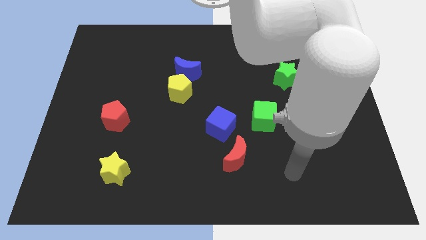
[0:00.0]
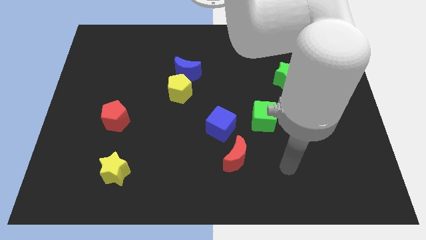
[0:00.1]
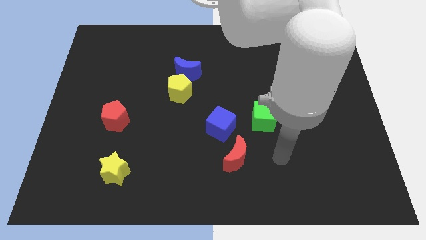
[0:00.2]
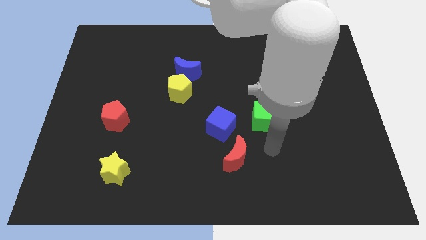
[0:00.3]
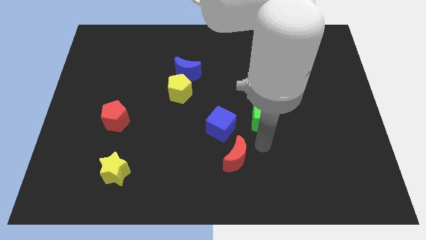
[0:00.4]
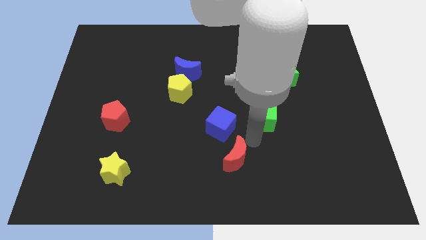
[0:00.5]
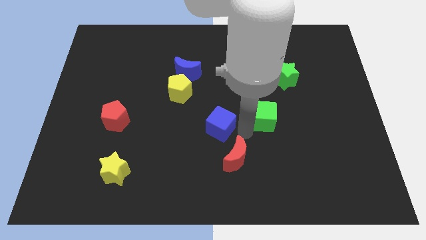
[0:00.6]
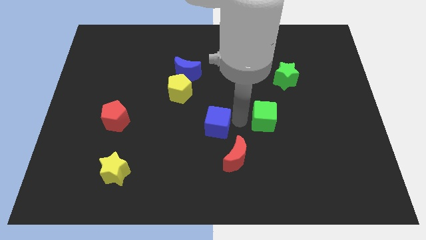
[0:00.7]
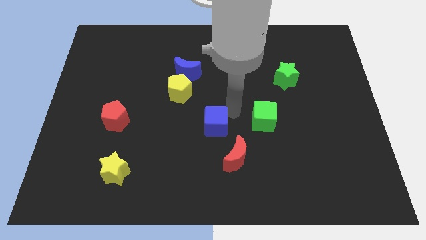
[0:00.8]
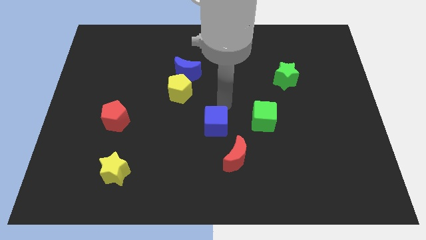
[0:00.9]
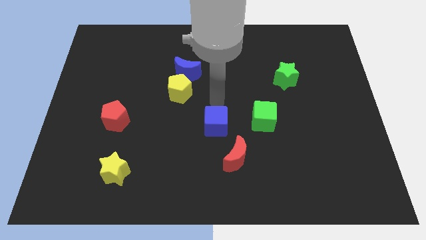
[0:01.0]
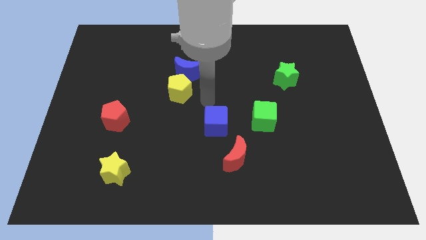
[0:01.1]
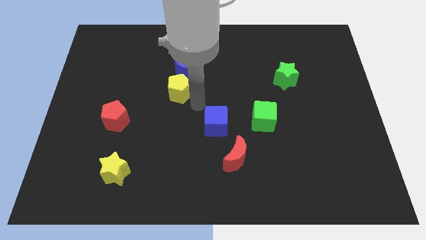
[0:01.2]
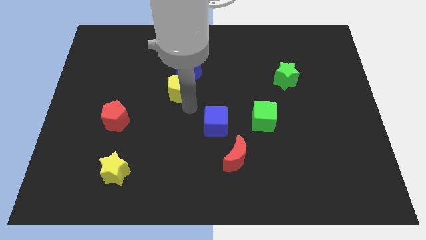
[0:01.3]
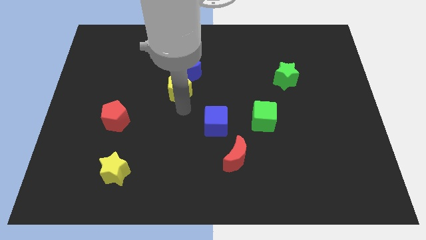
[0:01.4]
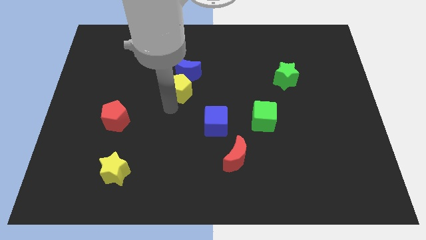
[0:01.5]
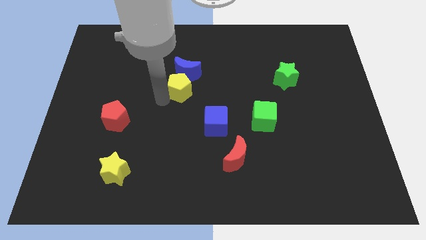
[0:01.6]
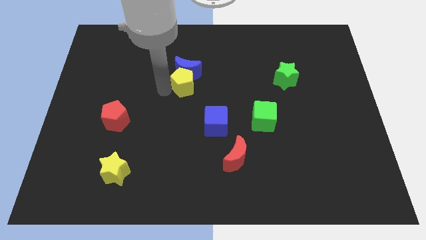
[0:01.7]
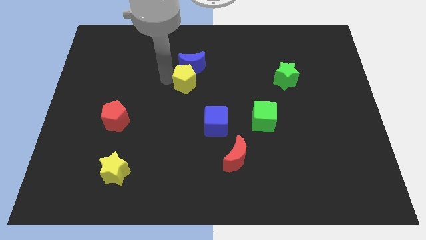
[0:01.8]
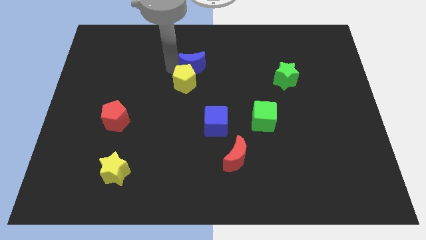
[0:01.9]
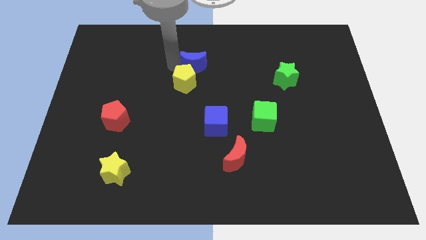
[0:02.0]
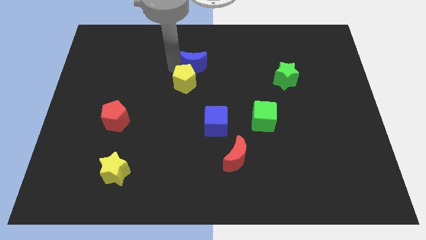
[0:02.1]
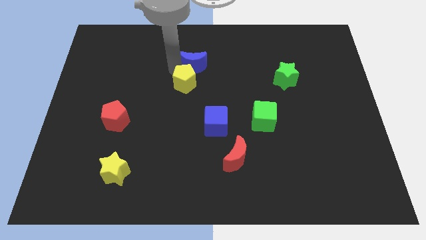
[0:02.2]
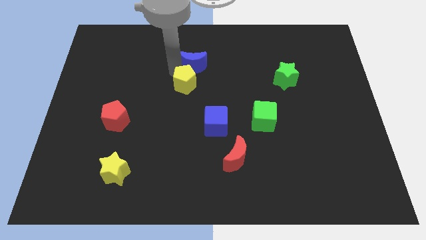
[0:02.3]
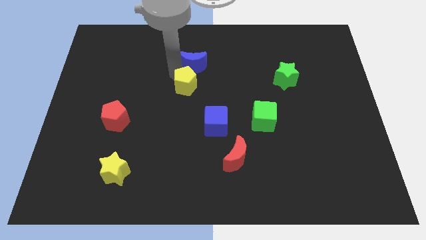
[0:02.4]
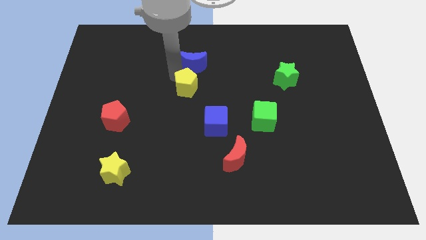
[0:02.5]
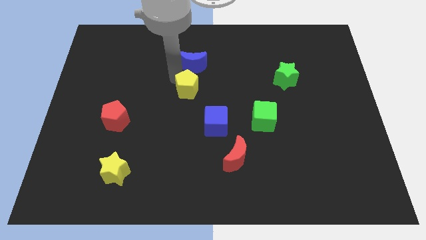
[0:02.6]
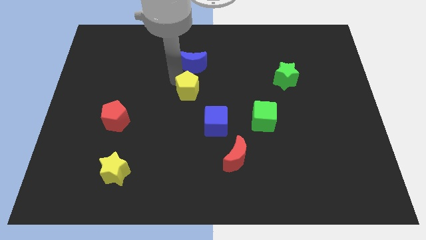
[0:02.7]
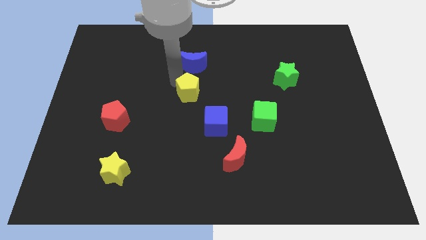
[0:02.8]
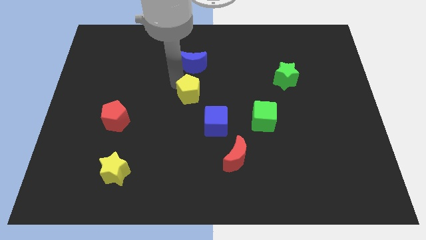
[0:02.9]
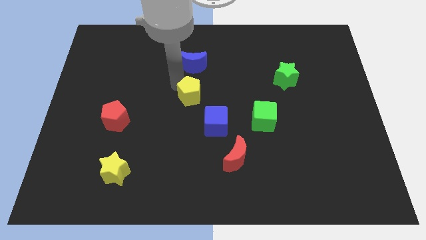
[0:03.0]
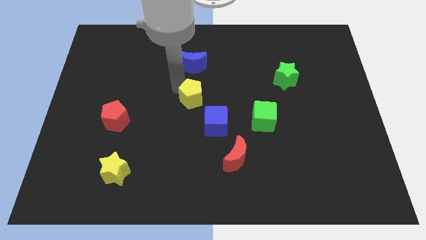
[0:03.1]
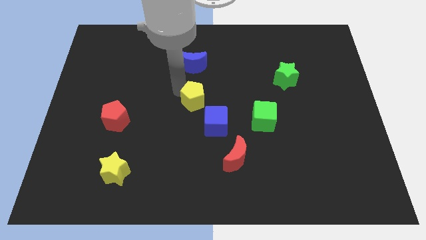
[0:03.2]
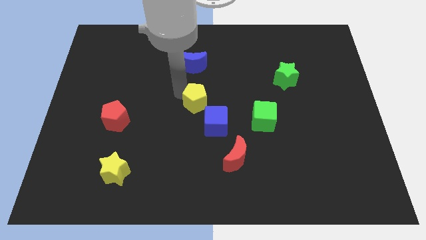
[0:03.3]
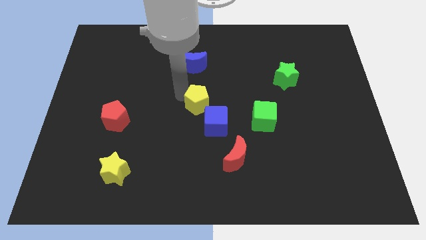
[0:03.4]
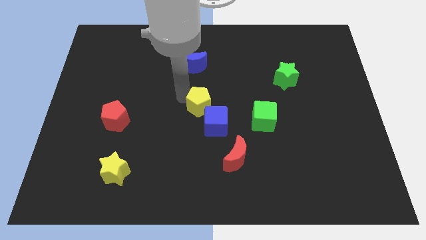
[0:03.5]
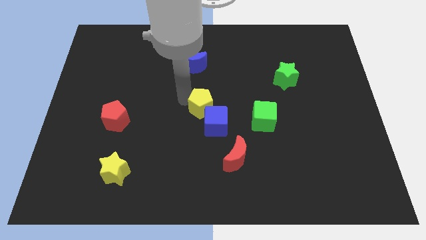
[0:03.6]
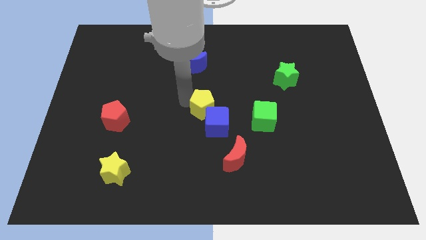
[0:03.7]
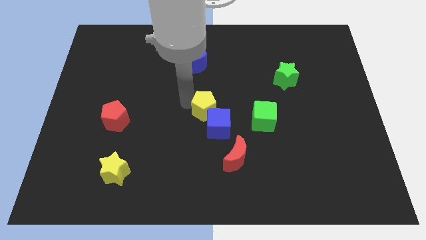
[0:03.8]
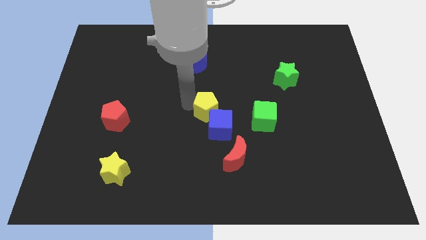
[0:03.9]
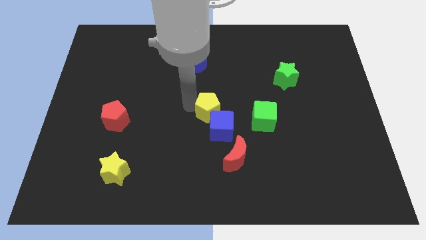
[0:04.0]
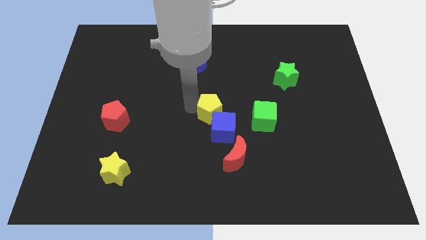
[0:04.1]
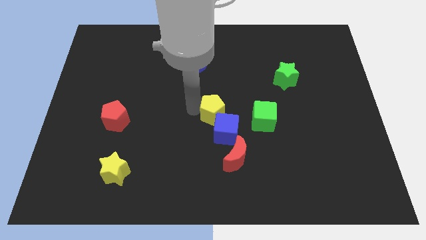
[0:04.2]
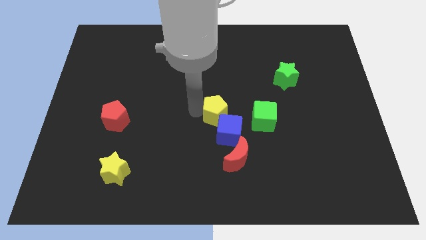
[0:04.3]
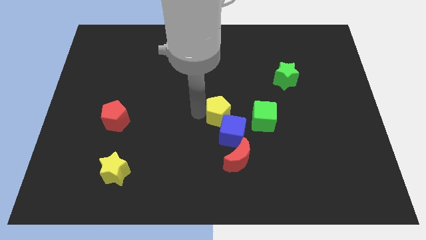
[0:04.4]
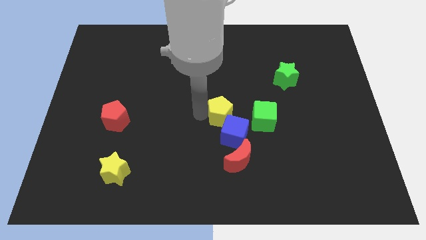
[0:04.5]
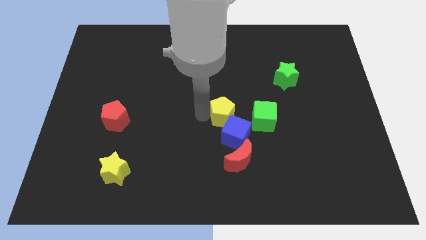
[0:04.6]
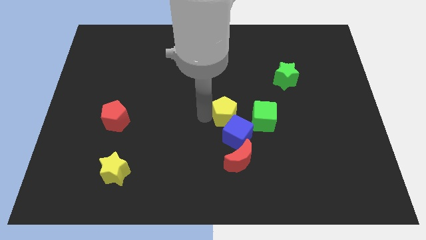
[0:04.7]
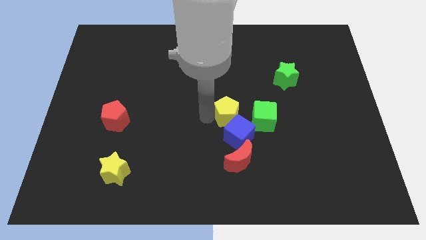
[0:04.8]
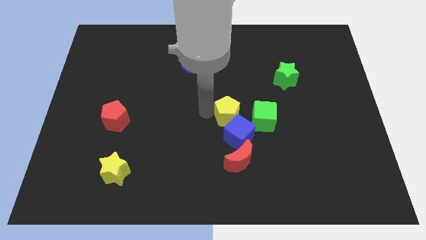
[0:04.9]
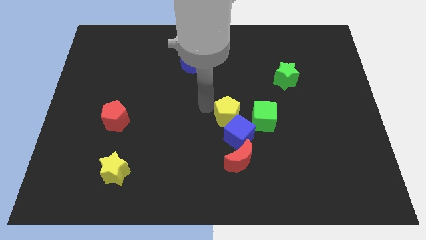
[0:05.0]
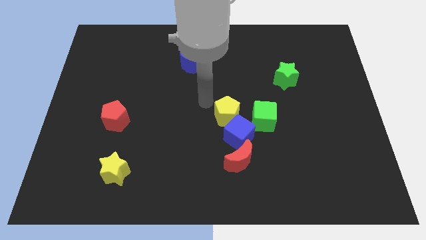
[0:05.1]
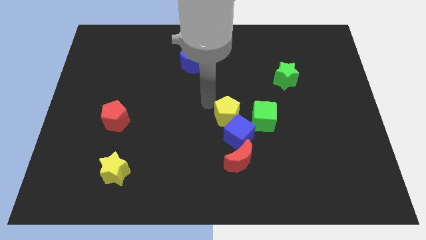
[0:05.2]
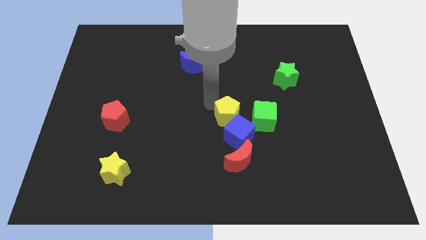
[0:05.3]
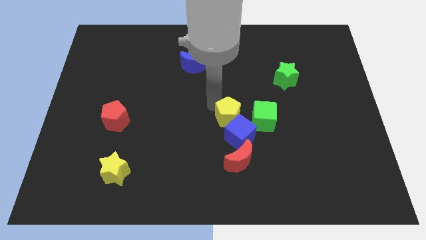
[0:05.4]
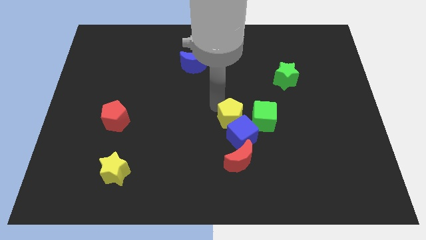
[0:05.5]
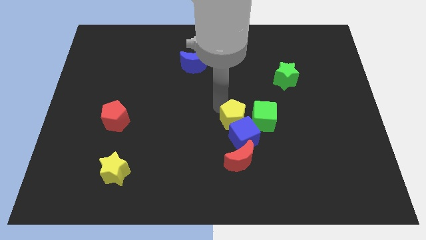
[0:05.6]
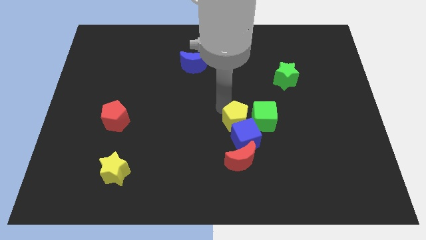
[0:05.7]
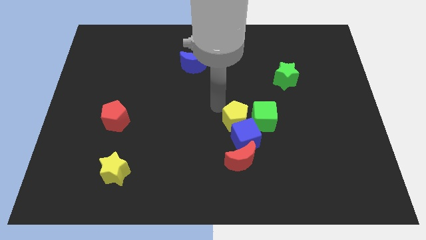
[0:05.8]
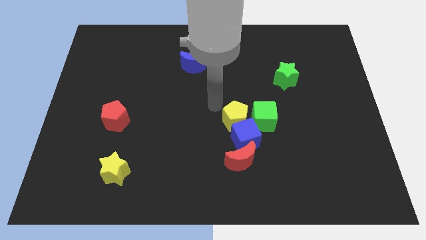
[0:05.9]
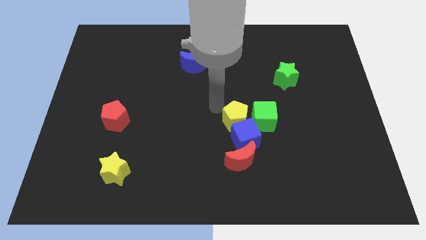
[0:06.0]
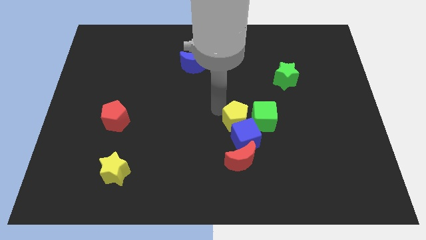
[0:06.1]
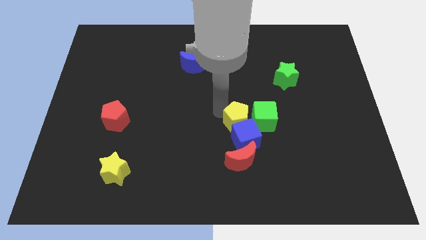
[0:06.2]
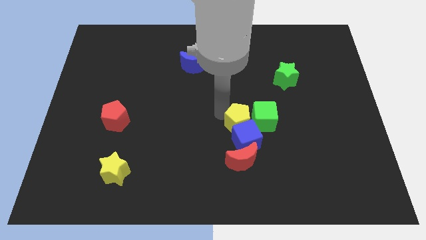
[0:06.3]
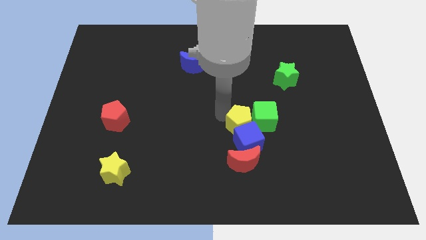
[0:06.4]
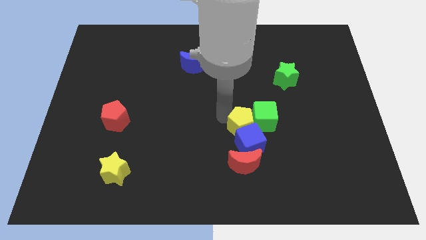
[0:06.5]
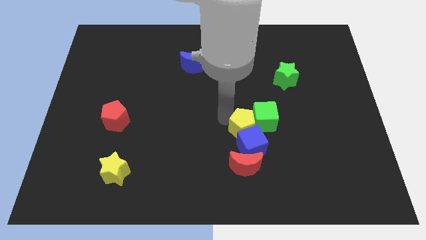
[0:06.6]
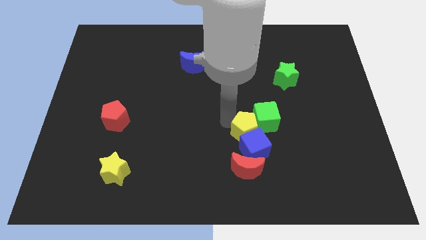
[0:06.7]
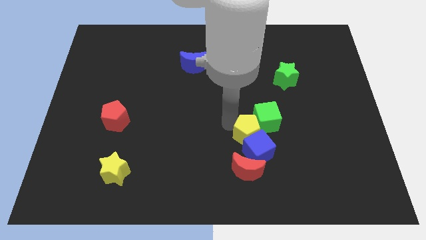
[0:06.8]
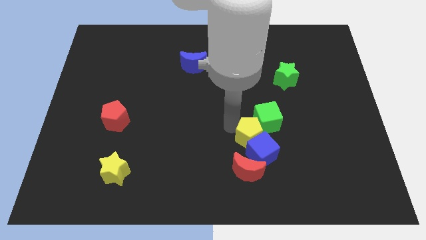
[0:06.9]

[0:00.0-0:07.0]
push the yellow pentagon down and to the right diagonally

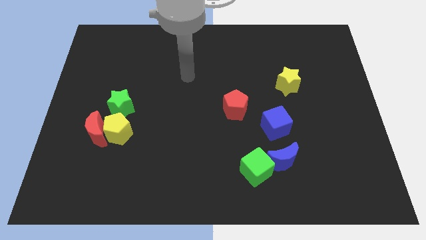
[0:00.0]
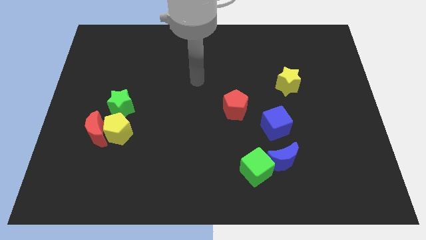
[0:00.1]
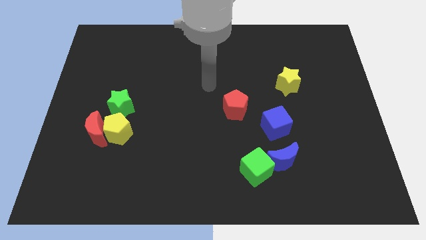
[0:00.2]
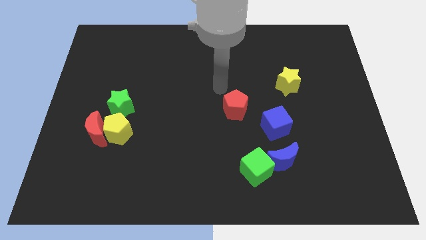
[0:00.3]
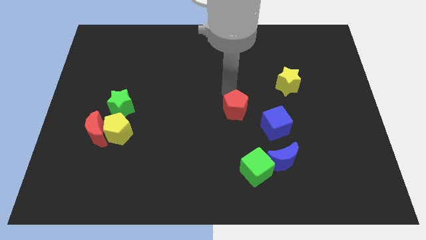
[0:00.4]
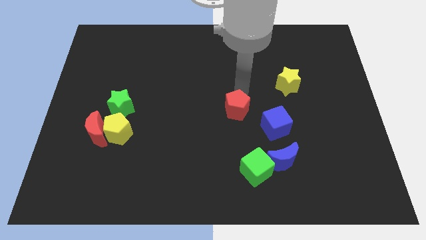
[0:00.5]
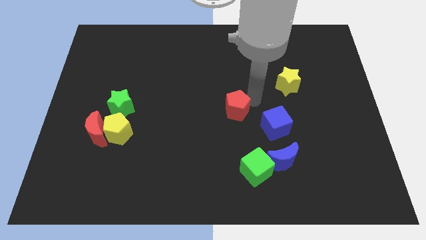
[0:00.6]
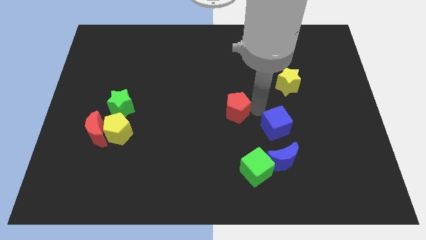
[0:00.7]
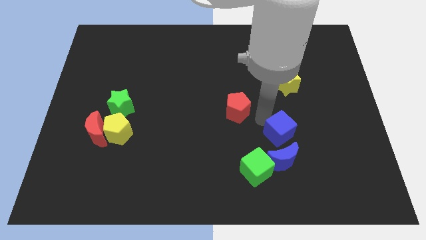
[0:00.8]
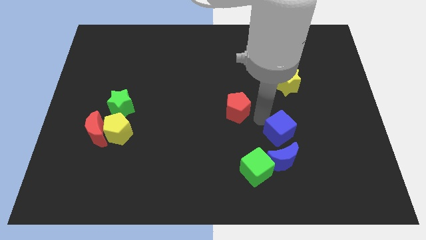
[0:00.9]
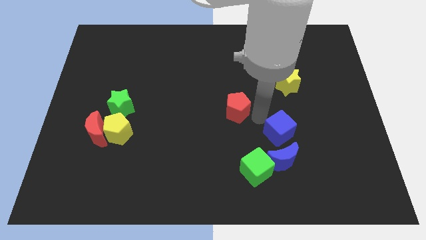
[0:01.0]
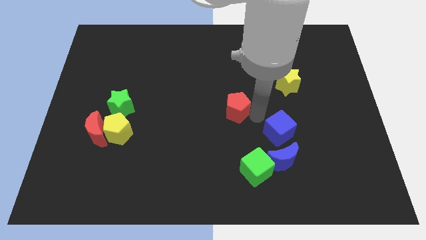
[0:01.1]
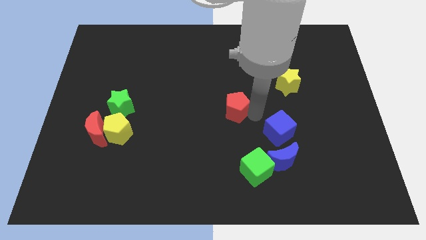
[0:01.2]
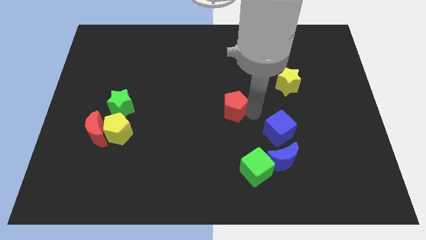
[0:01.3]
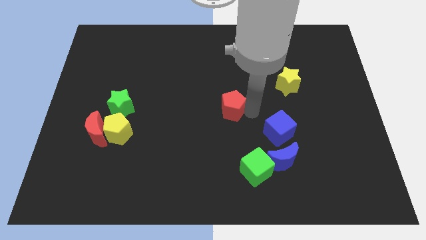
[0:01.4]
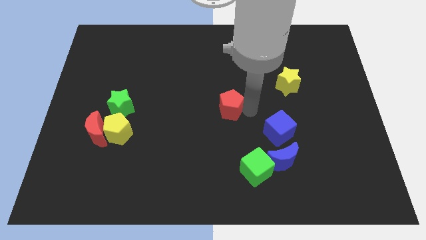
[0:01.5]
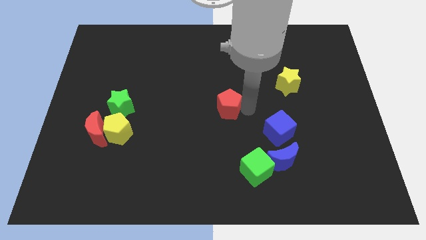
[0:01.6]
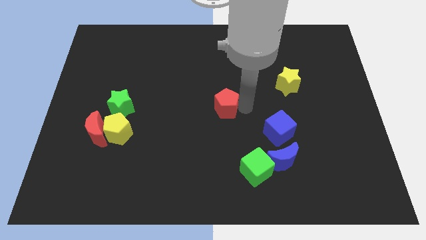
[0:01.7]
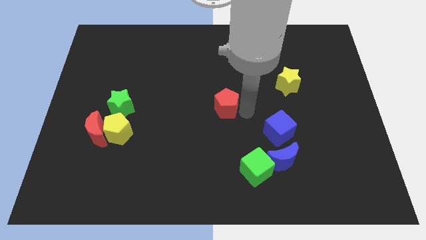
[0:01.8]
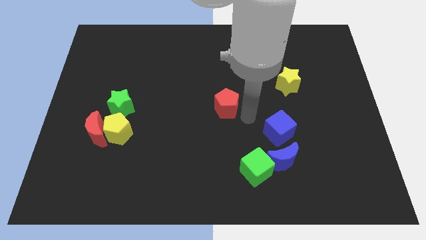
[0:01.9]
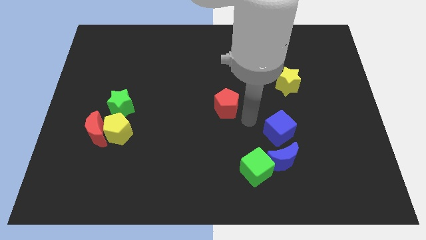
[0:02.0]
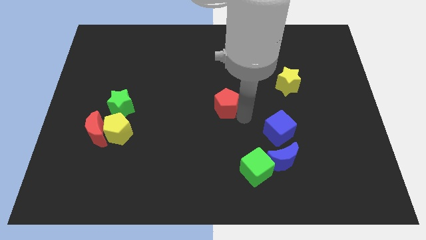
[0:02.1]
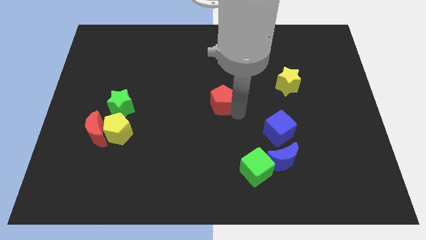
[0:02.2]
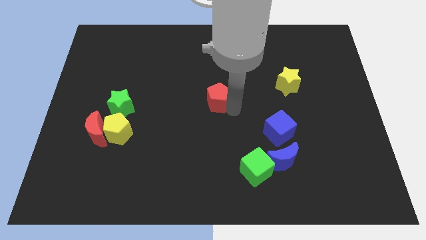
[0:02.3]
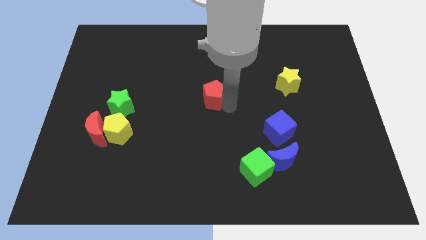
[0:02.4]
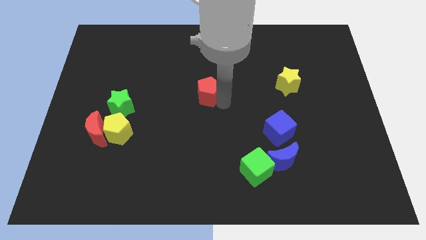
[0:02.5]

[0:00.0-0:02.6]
slightly move the red pentagon upwards and to the left diagonally
